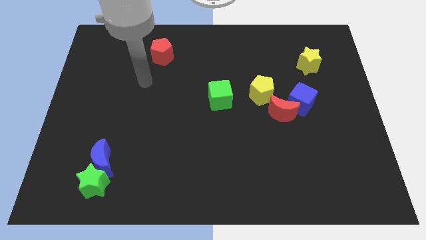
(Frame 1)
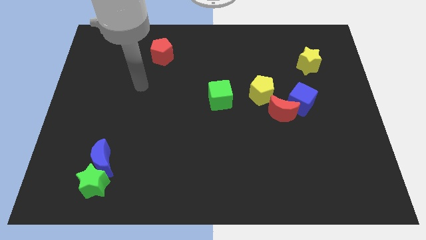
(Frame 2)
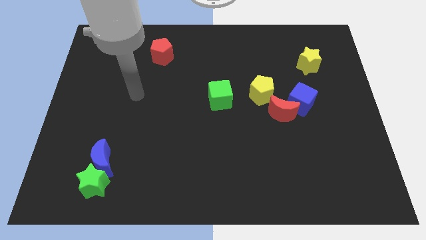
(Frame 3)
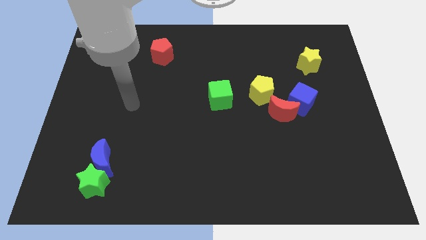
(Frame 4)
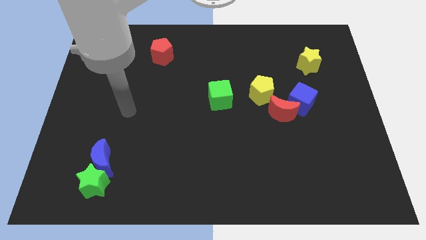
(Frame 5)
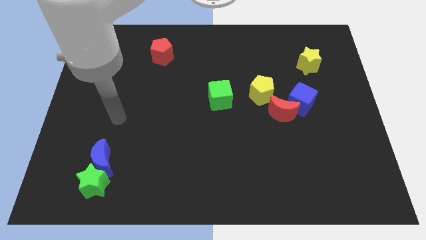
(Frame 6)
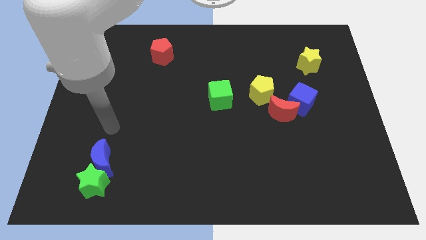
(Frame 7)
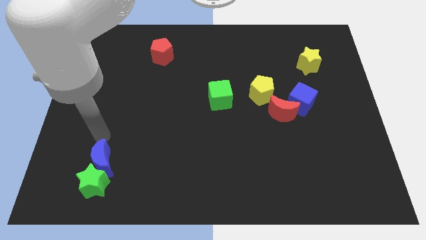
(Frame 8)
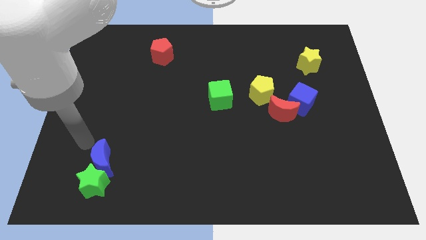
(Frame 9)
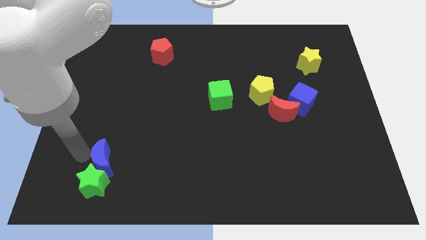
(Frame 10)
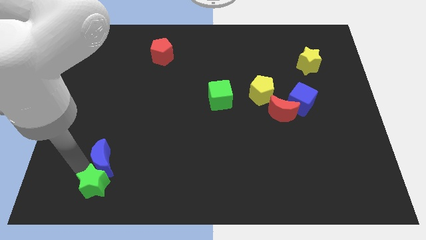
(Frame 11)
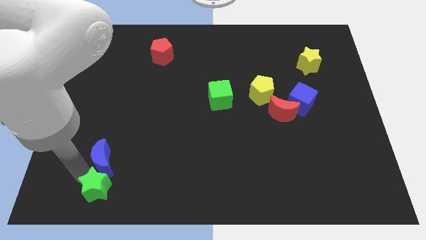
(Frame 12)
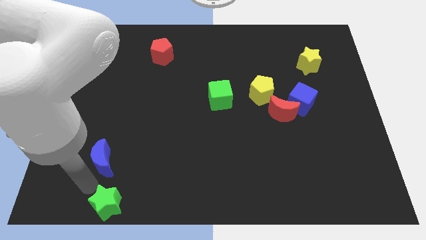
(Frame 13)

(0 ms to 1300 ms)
move the blue moon away from the green star

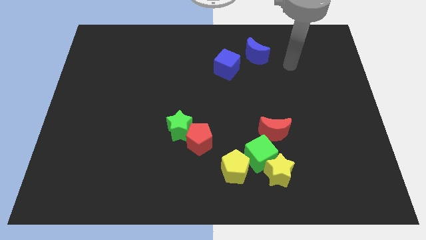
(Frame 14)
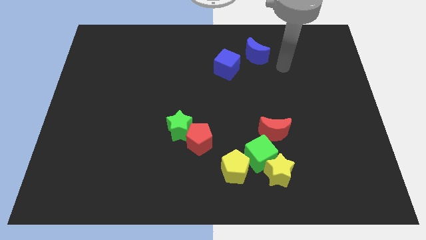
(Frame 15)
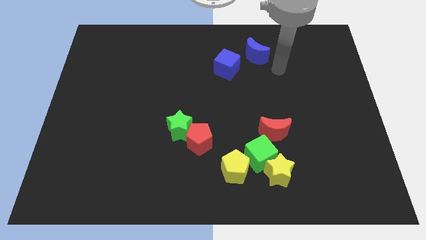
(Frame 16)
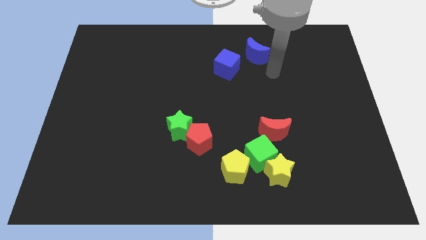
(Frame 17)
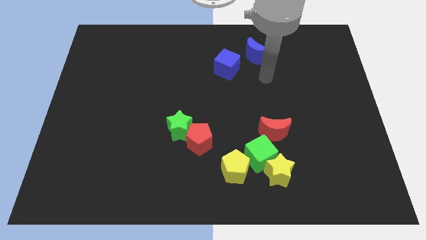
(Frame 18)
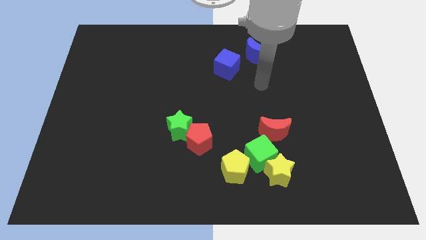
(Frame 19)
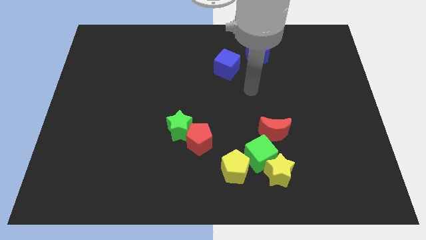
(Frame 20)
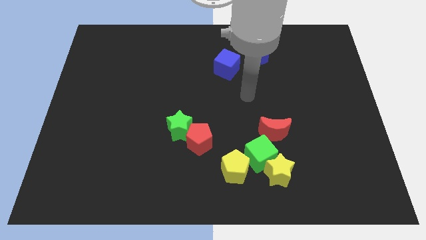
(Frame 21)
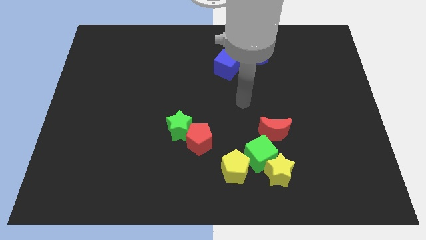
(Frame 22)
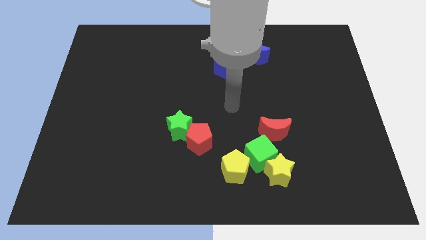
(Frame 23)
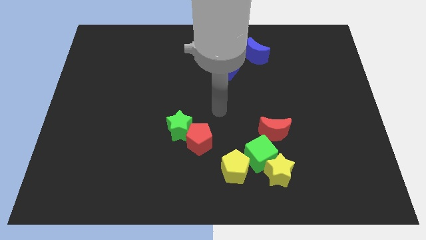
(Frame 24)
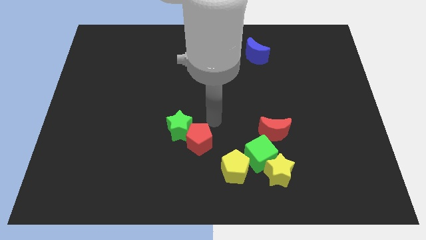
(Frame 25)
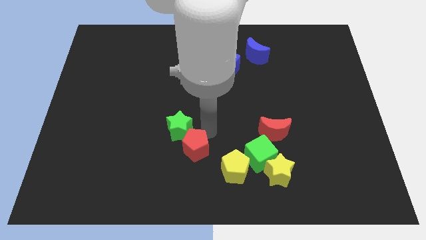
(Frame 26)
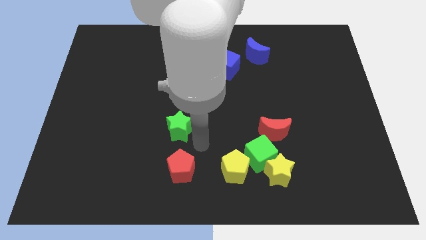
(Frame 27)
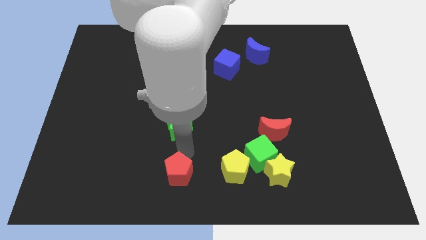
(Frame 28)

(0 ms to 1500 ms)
separate the green star from the red pentagon

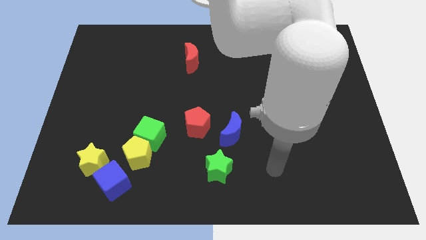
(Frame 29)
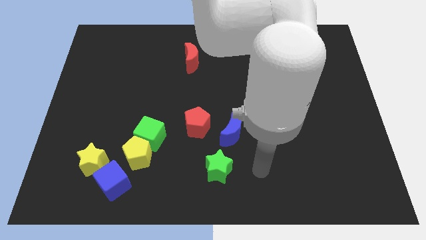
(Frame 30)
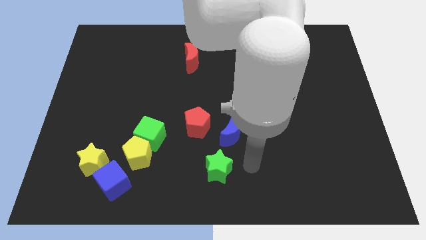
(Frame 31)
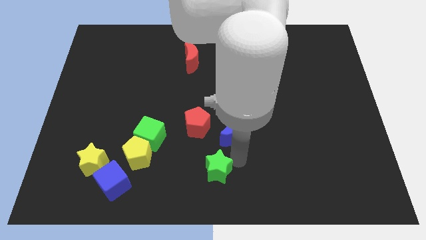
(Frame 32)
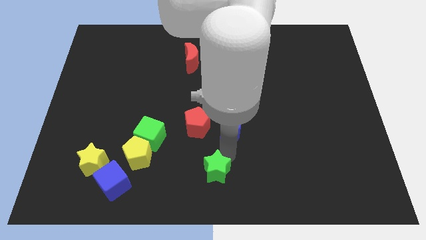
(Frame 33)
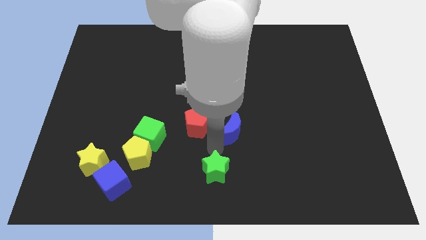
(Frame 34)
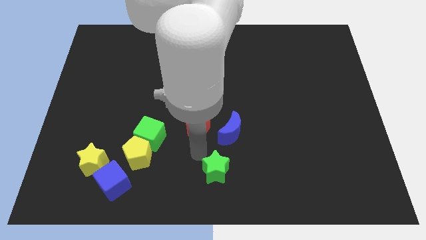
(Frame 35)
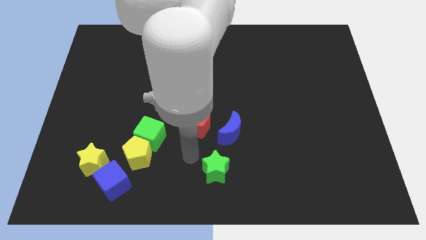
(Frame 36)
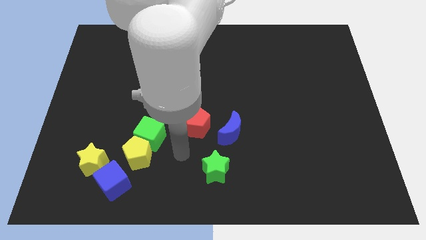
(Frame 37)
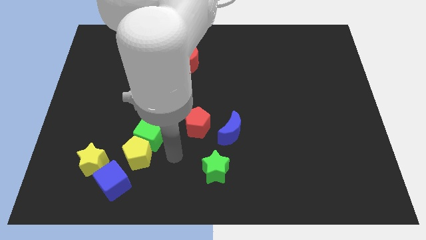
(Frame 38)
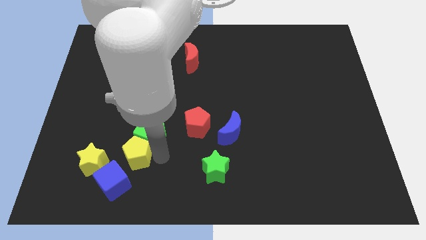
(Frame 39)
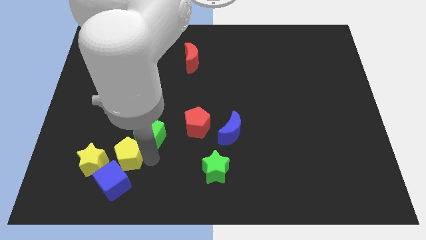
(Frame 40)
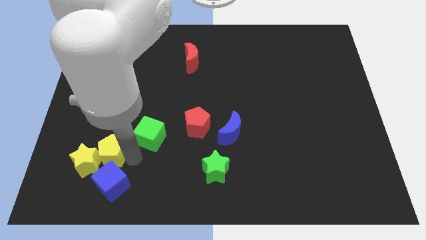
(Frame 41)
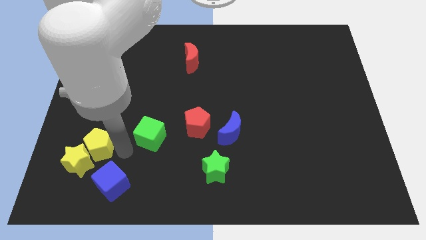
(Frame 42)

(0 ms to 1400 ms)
separate the green cube from the yellow pentagon

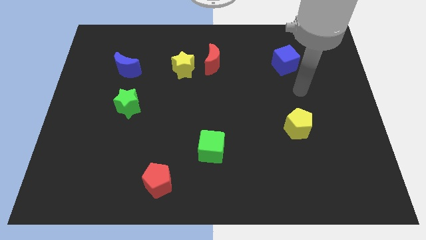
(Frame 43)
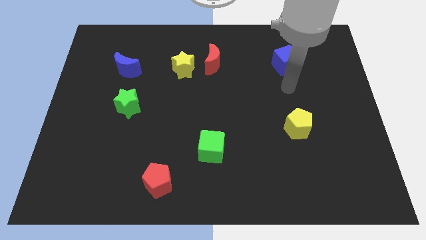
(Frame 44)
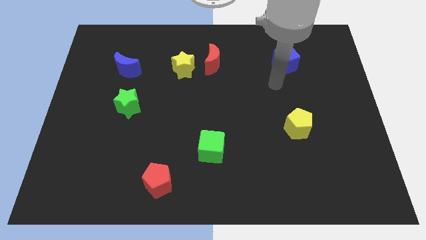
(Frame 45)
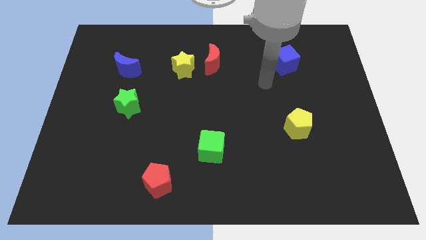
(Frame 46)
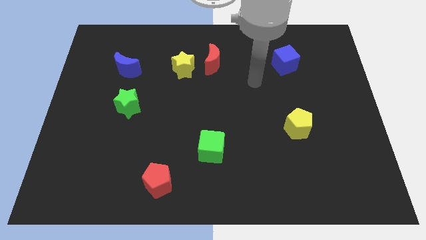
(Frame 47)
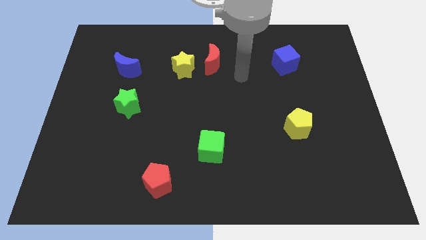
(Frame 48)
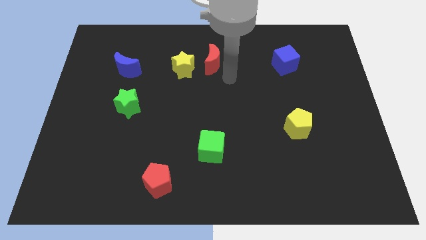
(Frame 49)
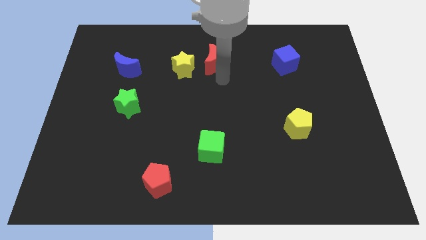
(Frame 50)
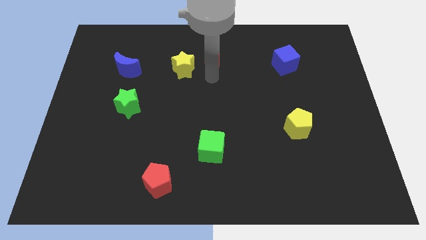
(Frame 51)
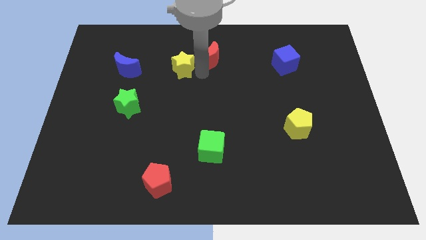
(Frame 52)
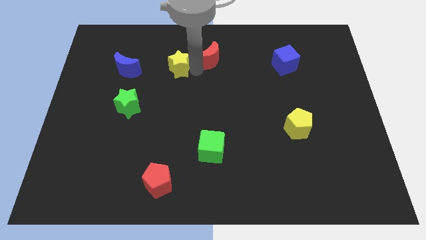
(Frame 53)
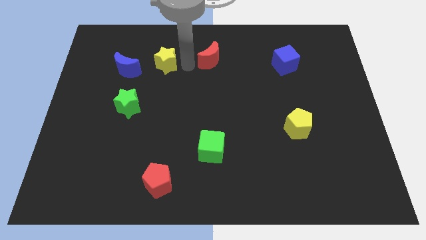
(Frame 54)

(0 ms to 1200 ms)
separate the red moon from the yellow star

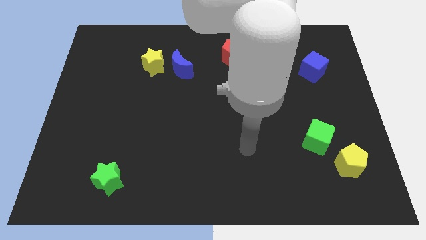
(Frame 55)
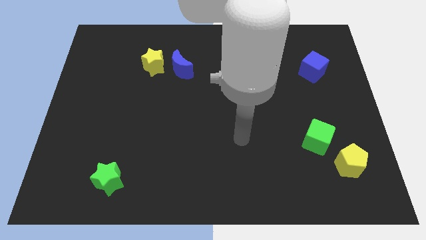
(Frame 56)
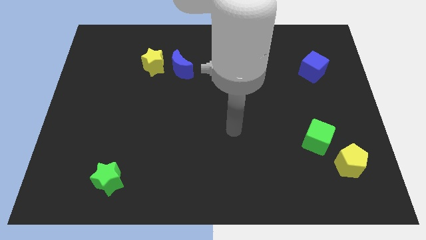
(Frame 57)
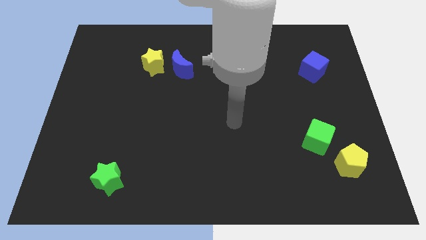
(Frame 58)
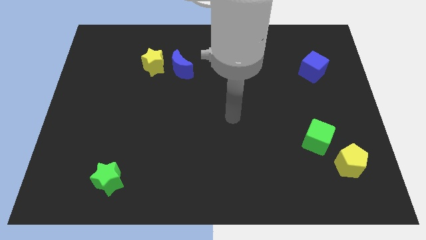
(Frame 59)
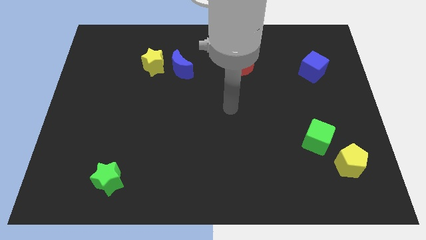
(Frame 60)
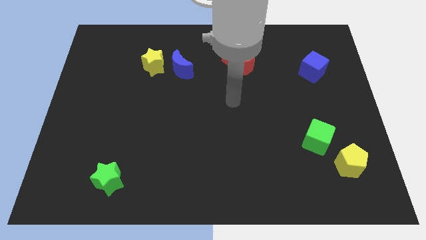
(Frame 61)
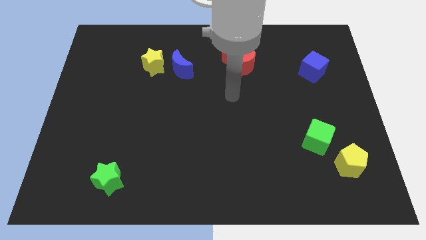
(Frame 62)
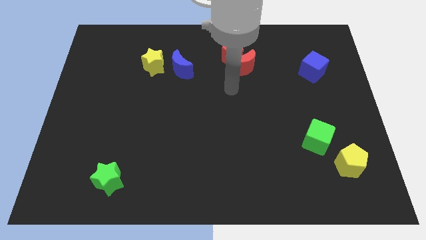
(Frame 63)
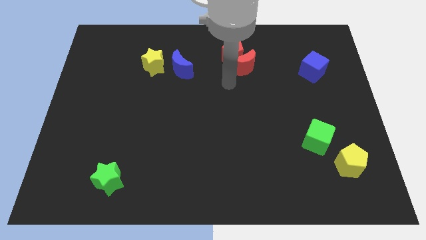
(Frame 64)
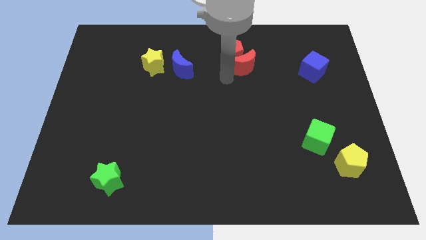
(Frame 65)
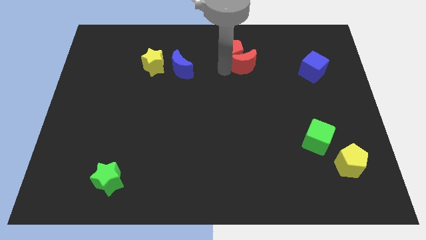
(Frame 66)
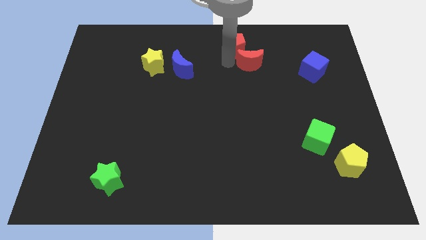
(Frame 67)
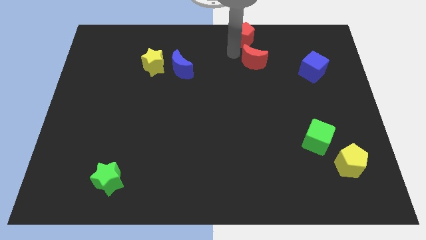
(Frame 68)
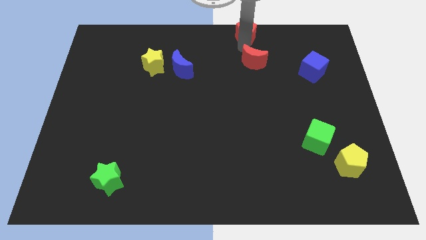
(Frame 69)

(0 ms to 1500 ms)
move the red moon away from the red pentagon

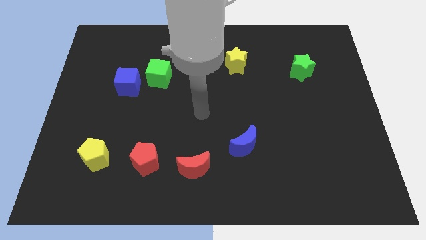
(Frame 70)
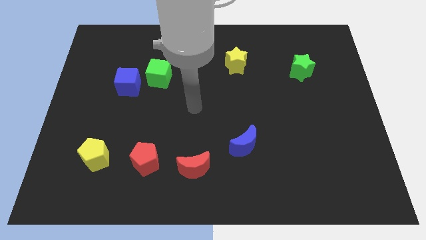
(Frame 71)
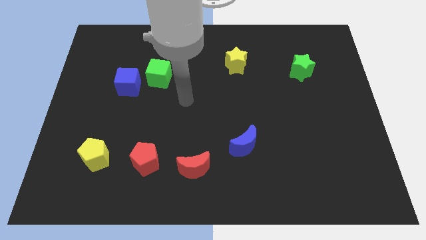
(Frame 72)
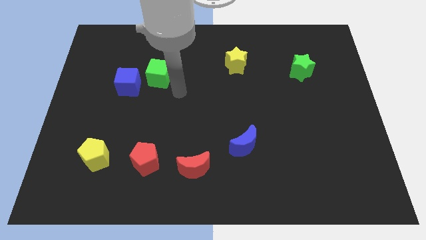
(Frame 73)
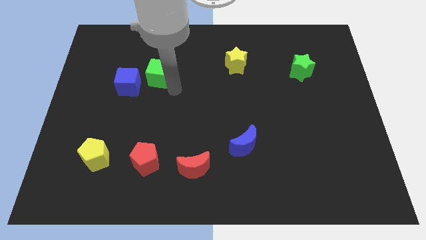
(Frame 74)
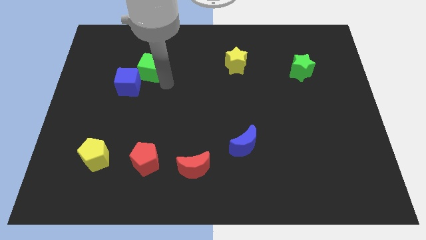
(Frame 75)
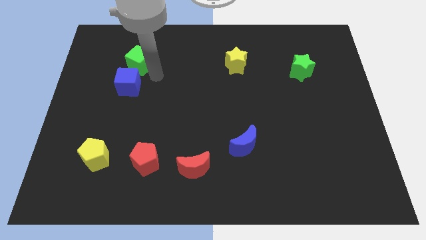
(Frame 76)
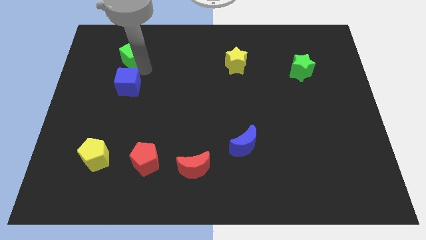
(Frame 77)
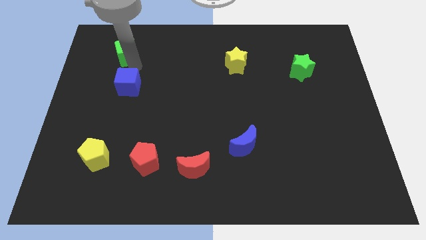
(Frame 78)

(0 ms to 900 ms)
pull the blue cube apart from the green cube

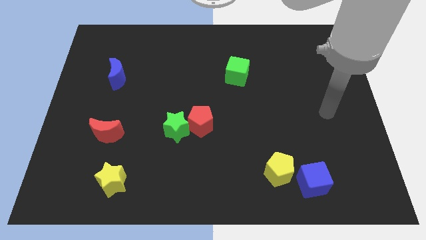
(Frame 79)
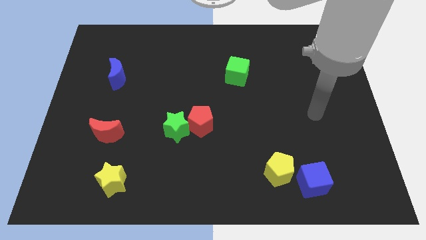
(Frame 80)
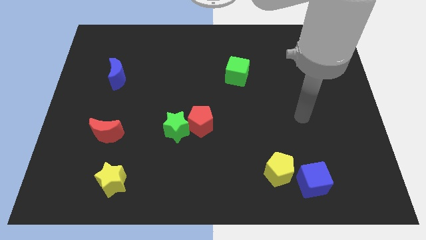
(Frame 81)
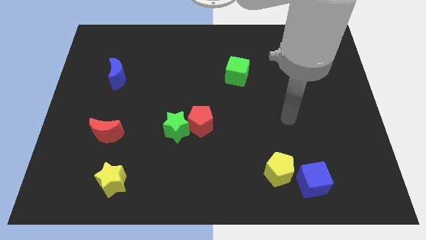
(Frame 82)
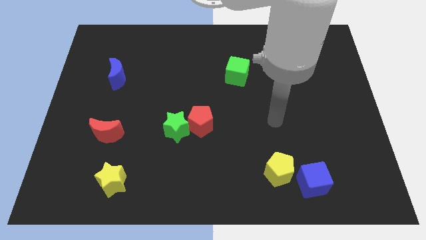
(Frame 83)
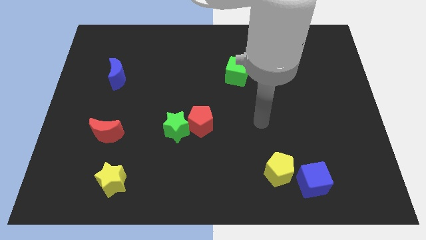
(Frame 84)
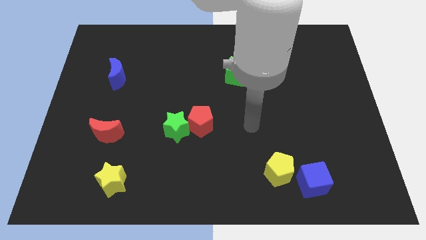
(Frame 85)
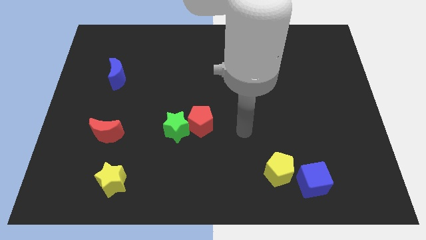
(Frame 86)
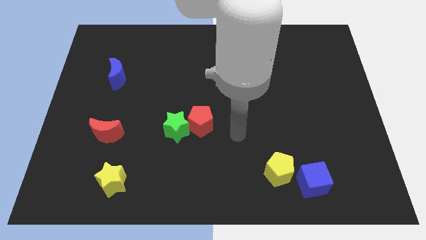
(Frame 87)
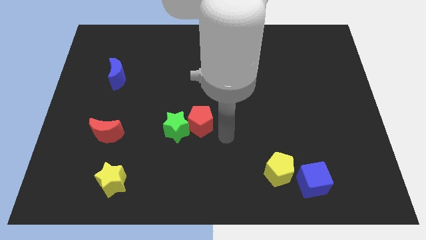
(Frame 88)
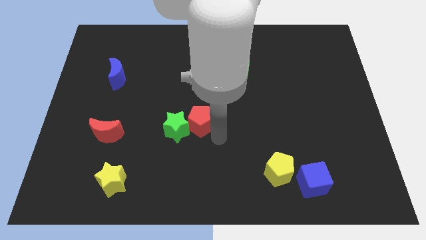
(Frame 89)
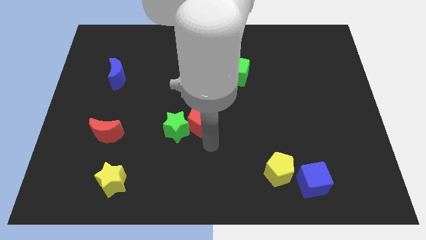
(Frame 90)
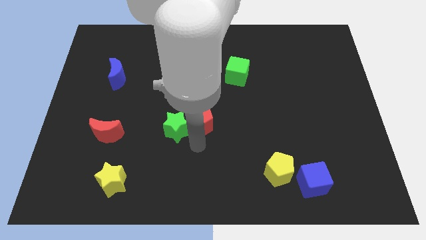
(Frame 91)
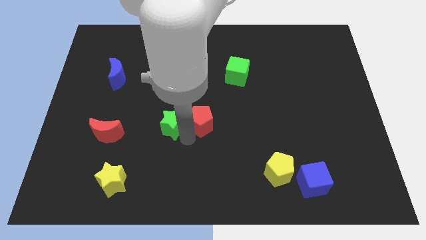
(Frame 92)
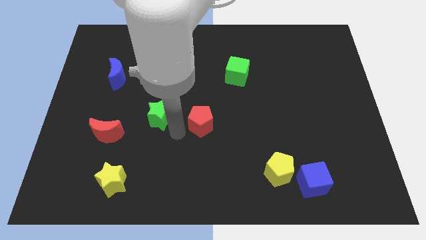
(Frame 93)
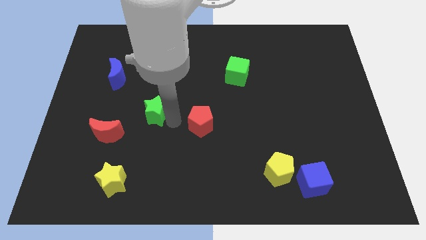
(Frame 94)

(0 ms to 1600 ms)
pull the red pentagon apart from the green star
